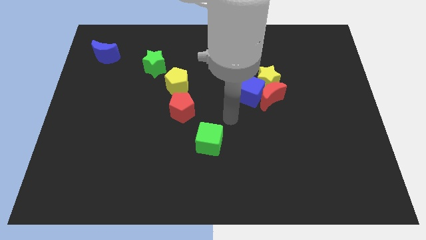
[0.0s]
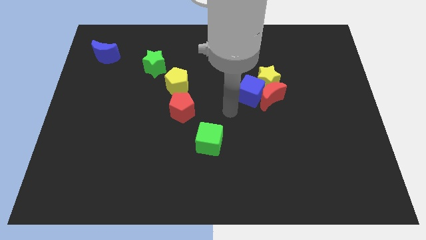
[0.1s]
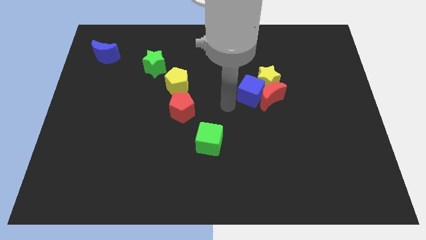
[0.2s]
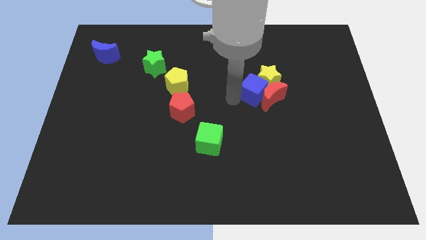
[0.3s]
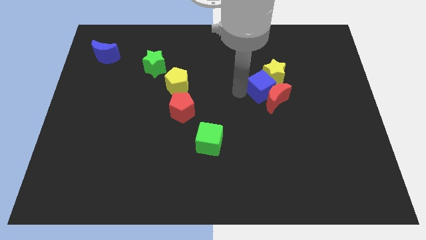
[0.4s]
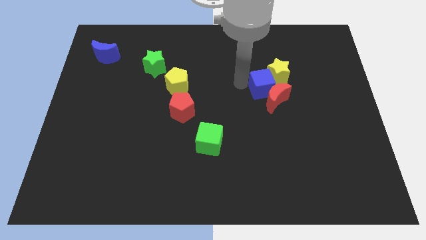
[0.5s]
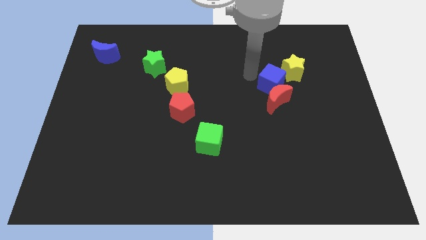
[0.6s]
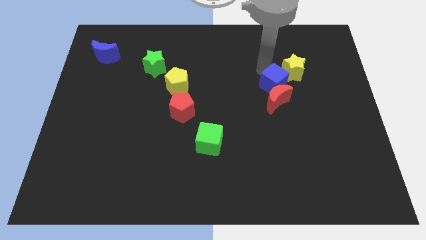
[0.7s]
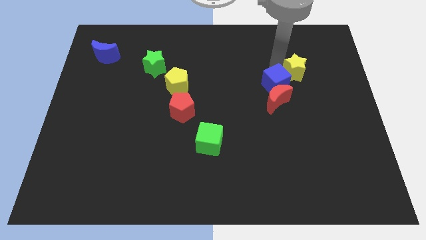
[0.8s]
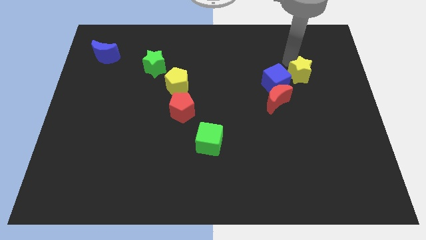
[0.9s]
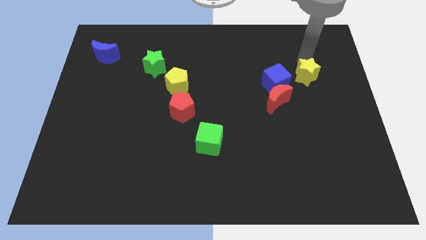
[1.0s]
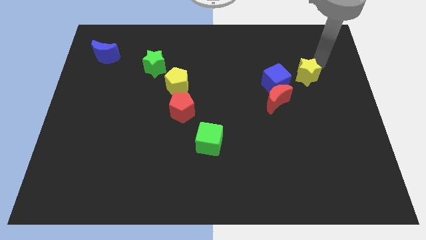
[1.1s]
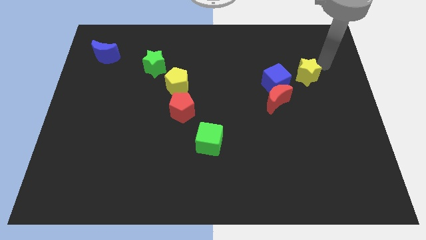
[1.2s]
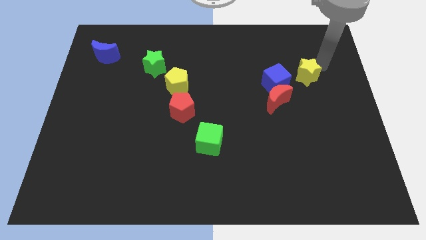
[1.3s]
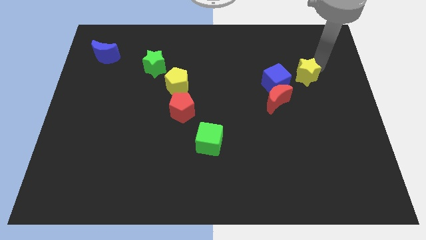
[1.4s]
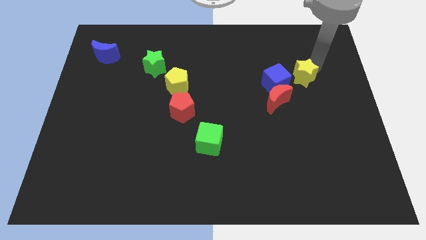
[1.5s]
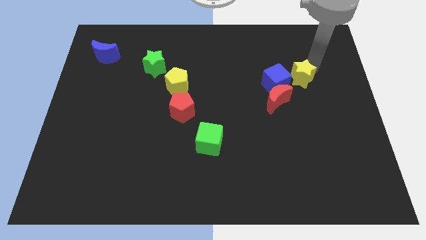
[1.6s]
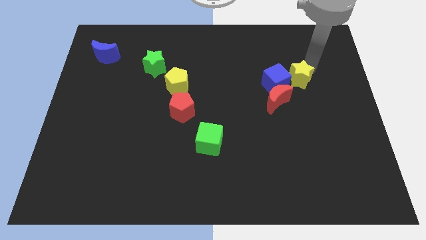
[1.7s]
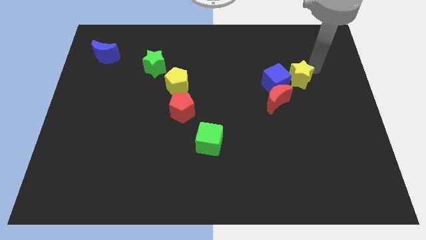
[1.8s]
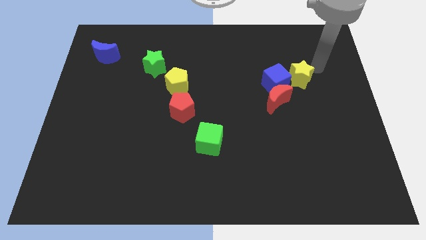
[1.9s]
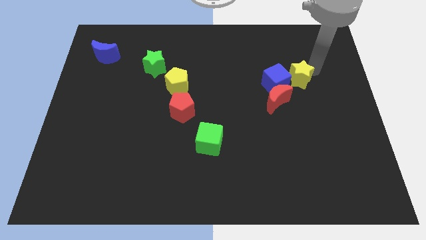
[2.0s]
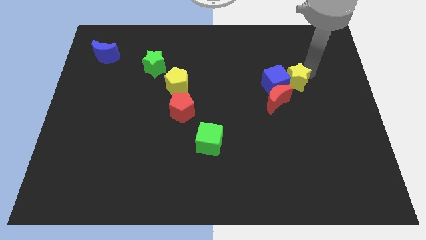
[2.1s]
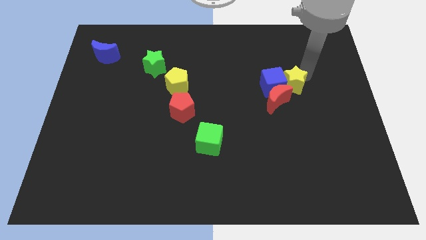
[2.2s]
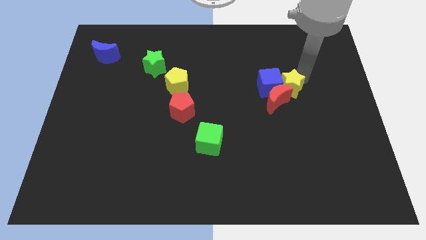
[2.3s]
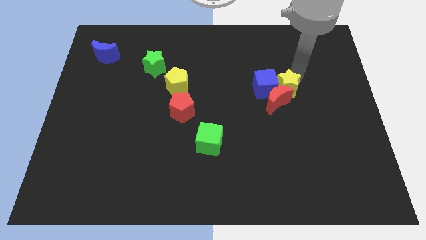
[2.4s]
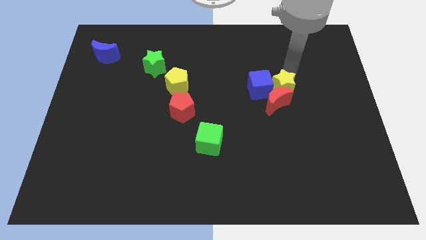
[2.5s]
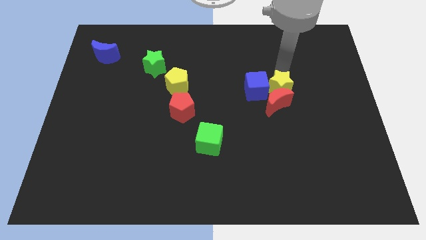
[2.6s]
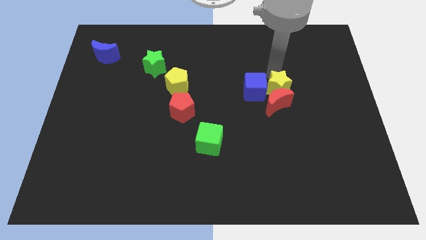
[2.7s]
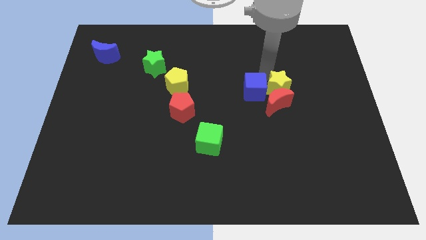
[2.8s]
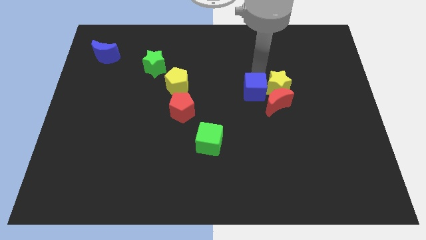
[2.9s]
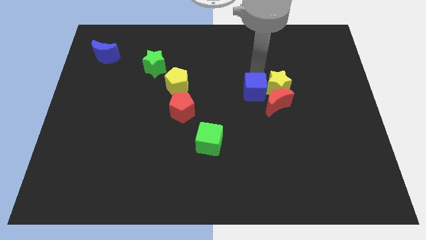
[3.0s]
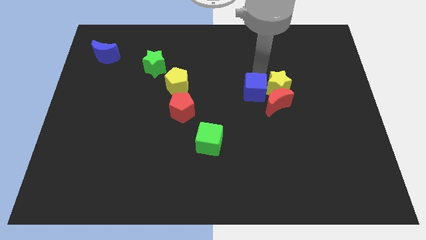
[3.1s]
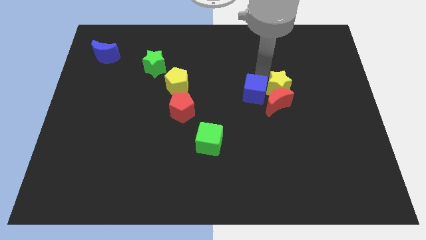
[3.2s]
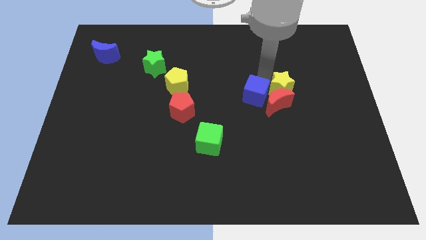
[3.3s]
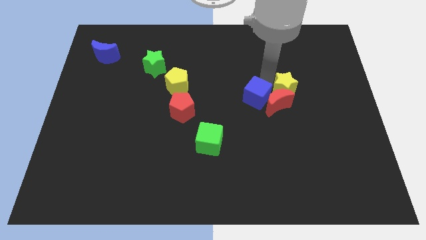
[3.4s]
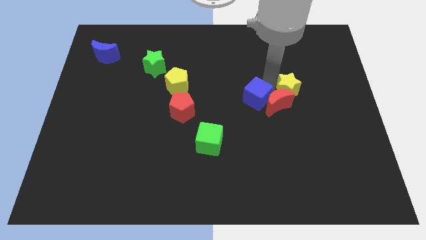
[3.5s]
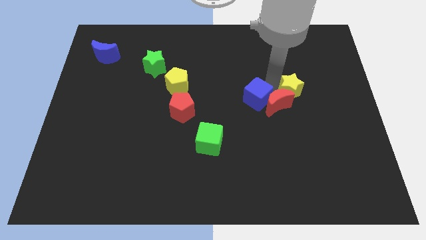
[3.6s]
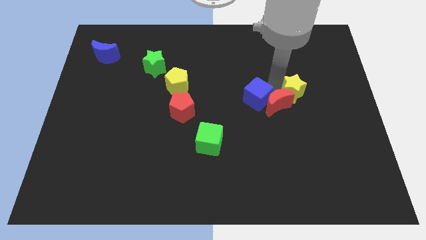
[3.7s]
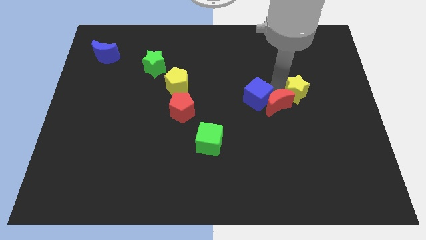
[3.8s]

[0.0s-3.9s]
slide the yellow star down and right diagonally a bit

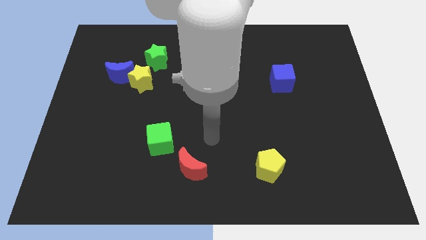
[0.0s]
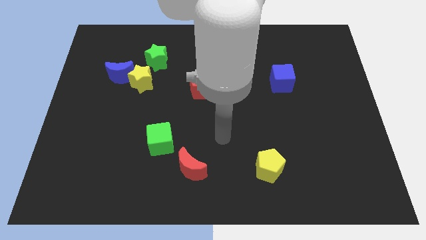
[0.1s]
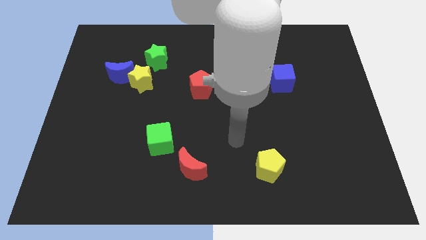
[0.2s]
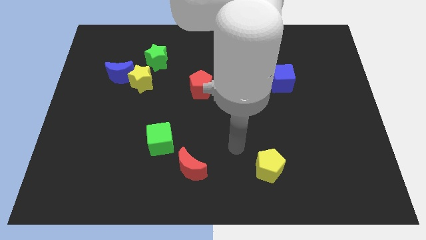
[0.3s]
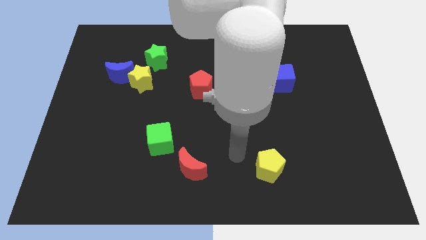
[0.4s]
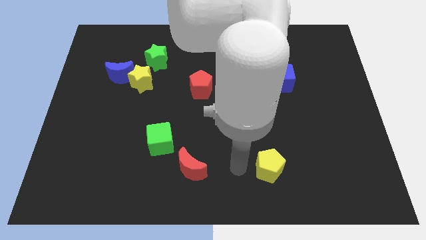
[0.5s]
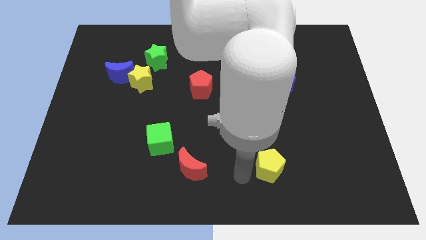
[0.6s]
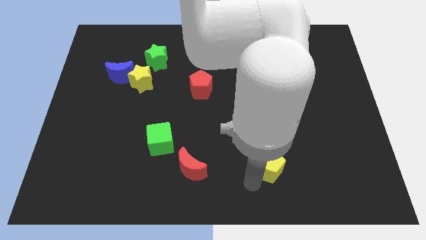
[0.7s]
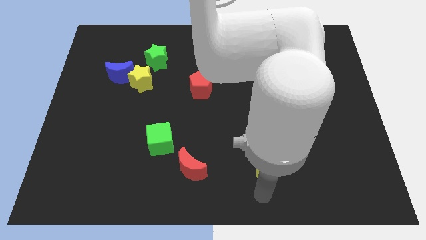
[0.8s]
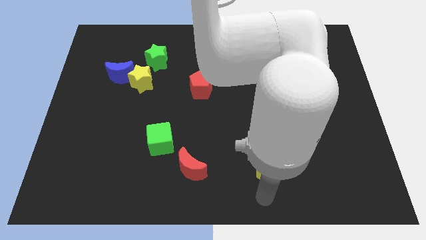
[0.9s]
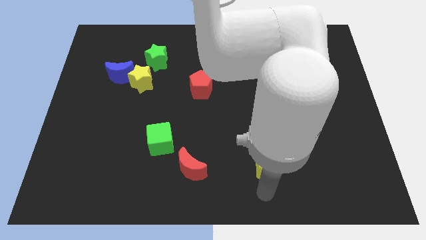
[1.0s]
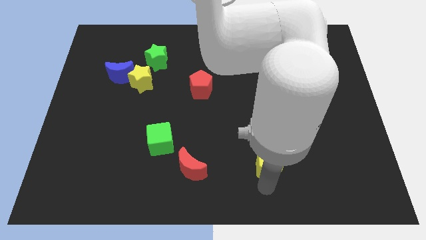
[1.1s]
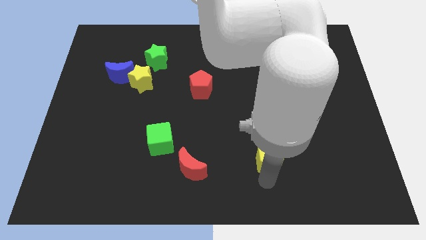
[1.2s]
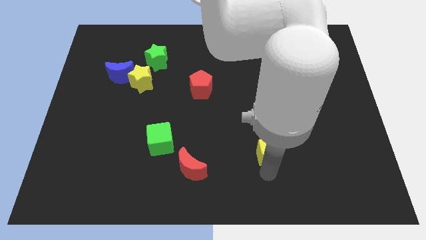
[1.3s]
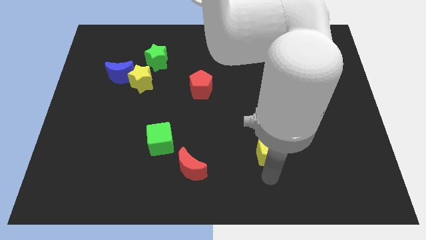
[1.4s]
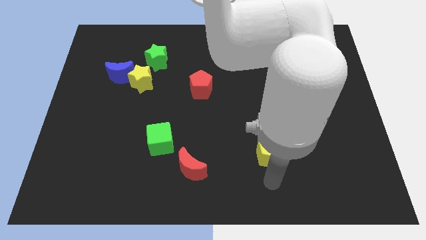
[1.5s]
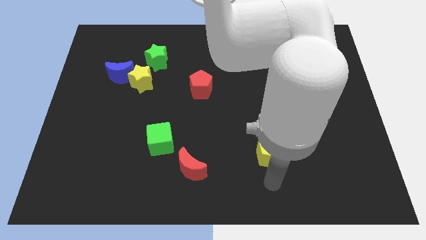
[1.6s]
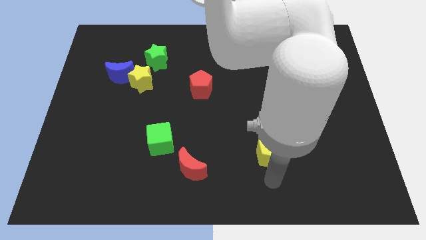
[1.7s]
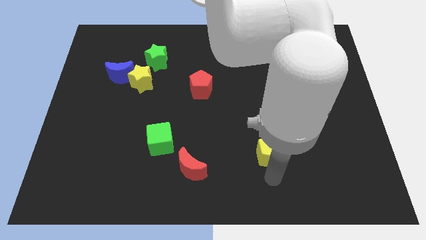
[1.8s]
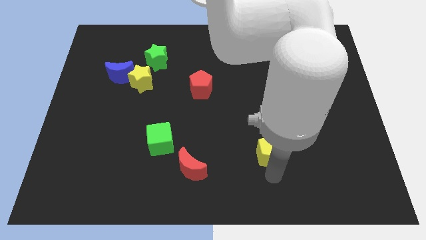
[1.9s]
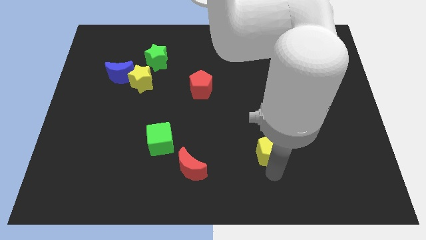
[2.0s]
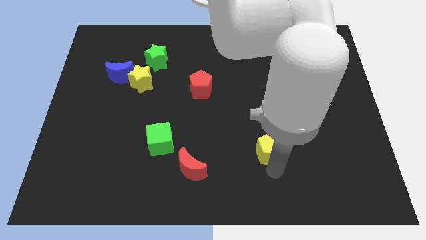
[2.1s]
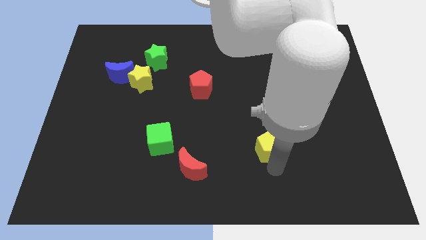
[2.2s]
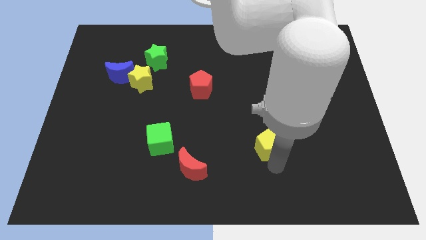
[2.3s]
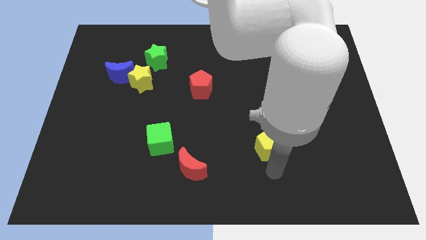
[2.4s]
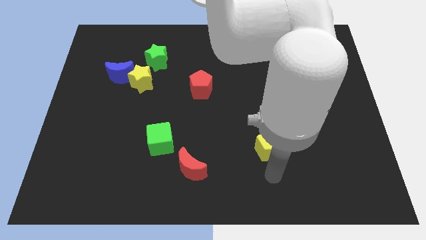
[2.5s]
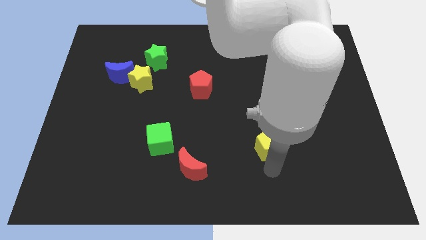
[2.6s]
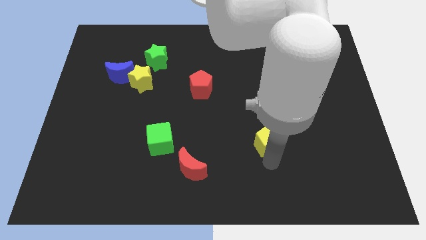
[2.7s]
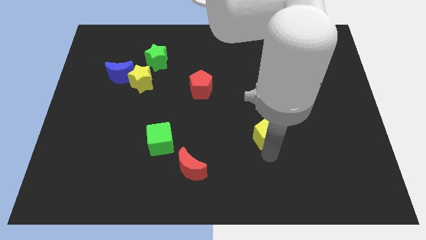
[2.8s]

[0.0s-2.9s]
slide the yellow pentagon upwards somewhat

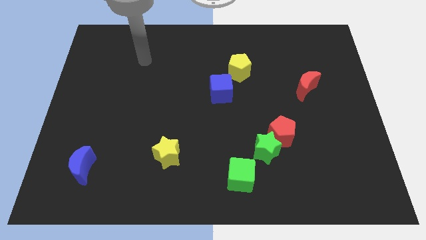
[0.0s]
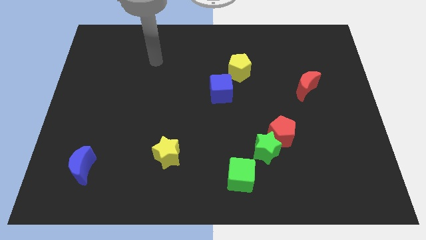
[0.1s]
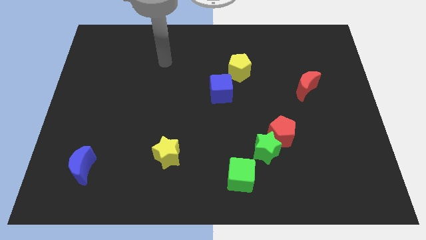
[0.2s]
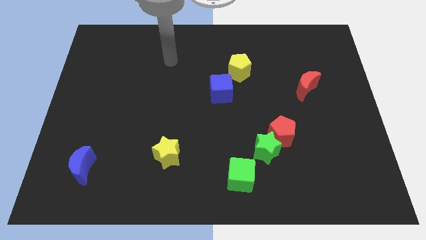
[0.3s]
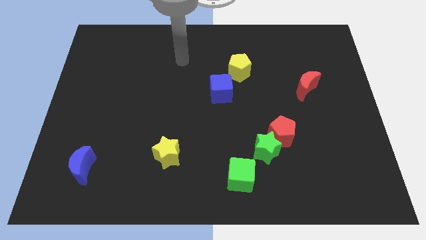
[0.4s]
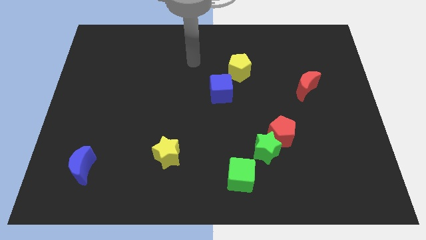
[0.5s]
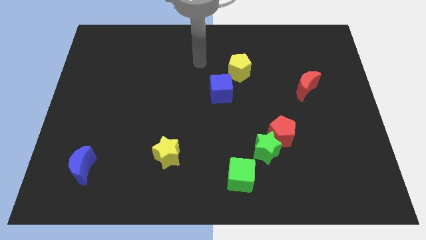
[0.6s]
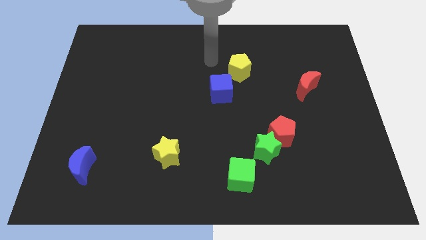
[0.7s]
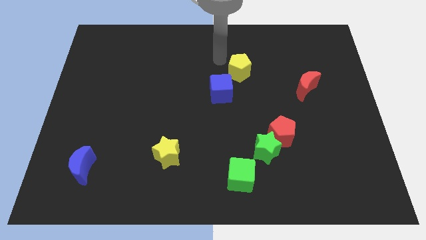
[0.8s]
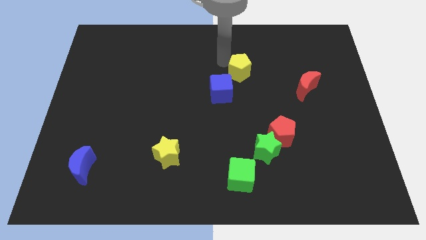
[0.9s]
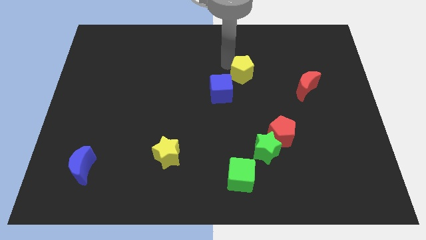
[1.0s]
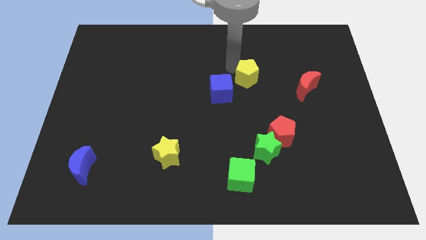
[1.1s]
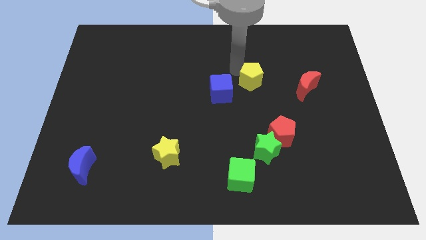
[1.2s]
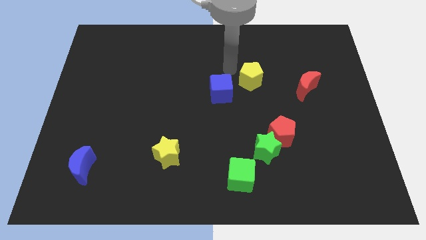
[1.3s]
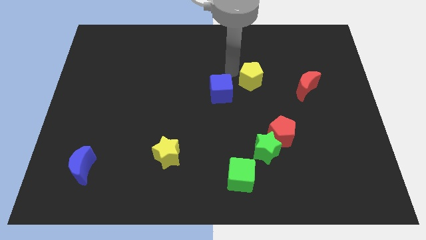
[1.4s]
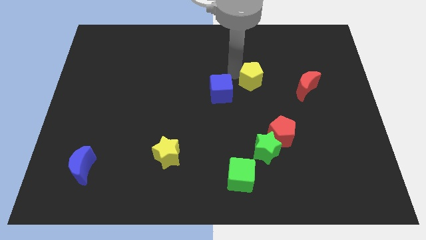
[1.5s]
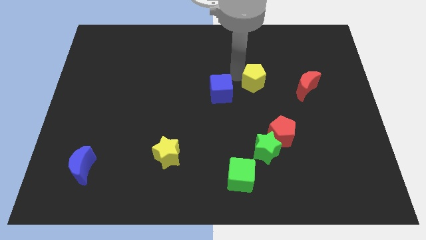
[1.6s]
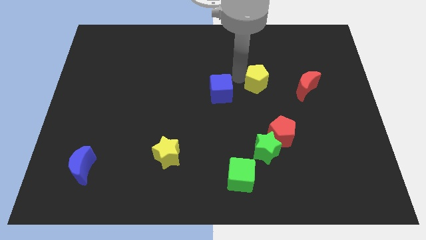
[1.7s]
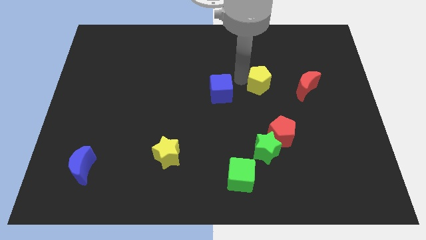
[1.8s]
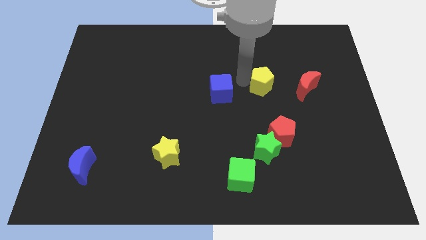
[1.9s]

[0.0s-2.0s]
move the yellow pentagon down and to the right slightly
